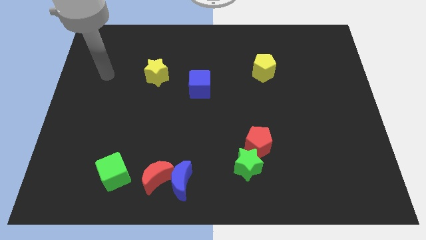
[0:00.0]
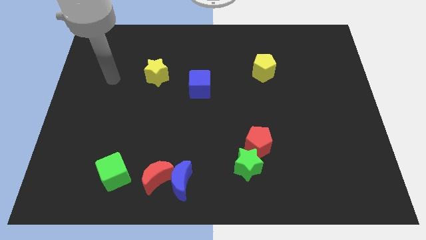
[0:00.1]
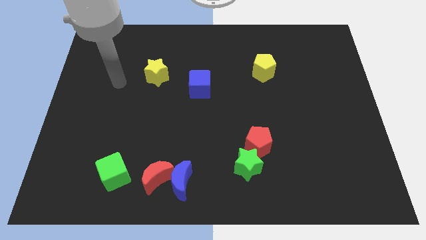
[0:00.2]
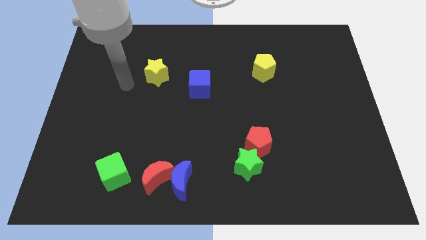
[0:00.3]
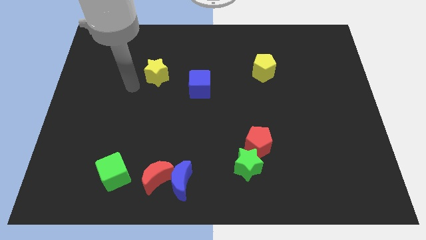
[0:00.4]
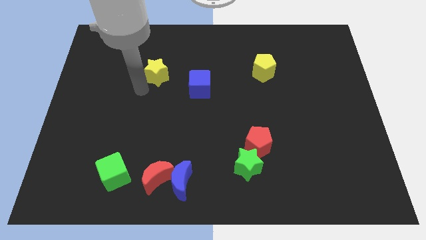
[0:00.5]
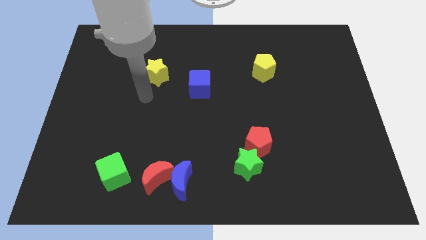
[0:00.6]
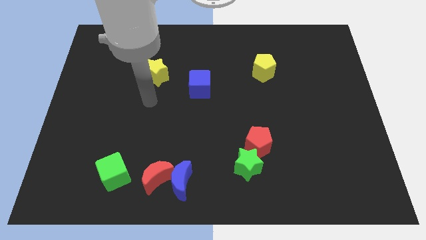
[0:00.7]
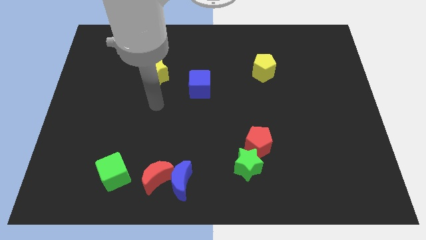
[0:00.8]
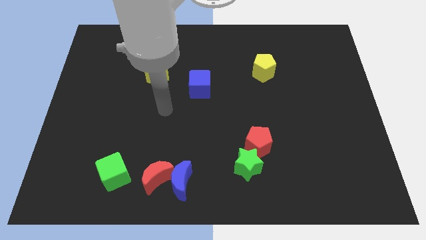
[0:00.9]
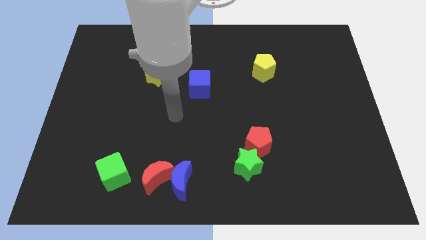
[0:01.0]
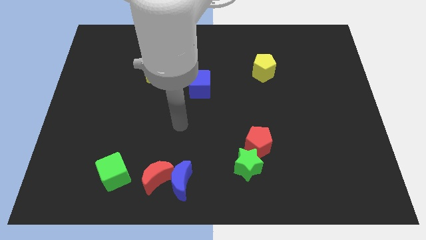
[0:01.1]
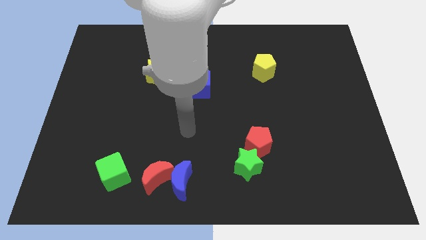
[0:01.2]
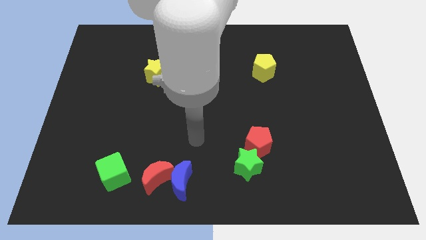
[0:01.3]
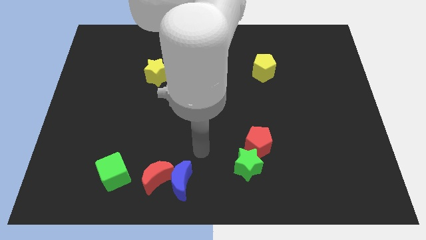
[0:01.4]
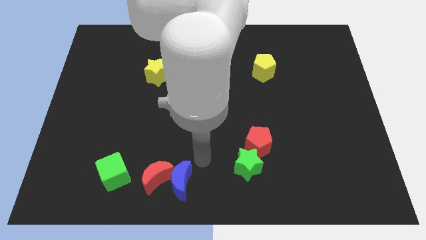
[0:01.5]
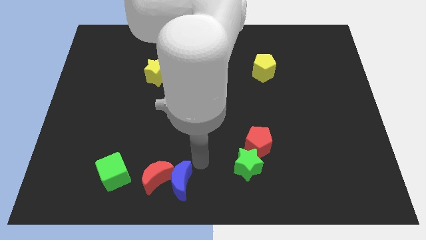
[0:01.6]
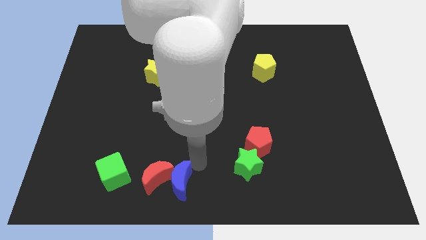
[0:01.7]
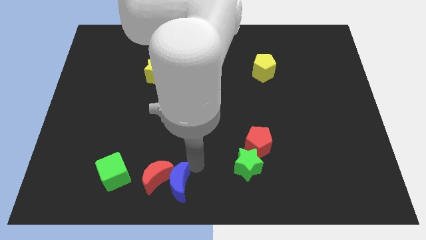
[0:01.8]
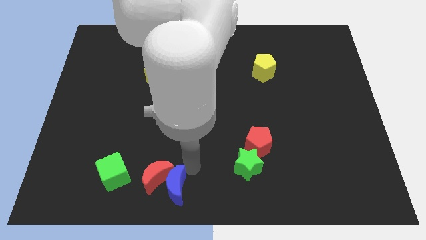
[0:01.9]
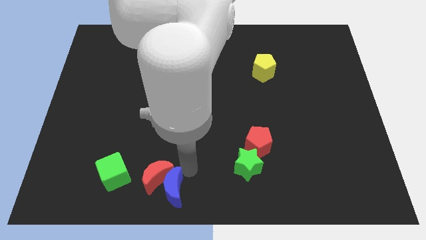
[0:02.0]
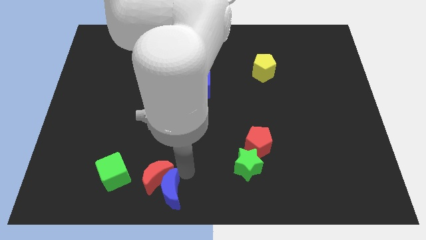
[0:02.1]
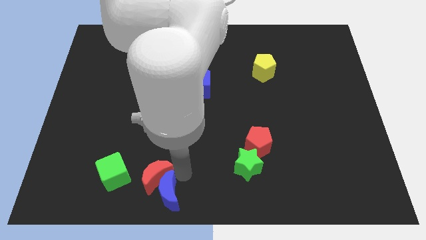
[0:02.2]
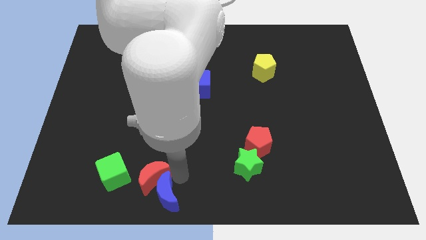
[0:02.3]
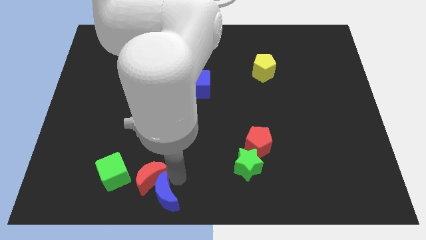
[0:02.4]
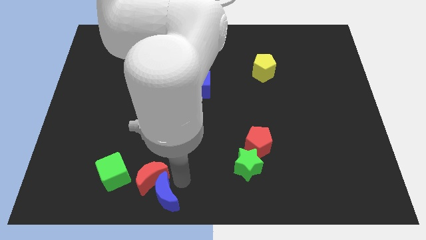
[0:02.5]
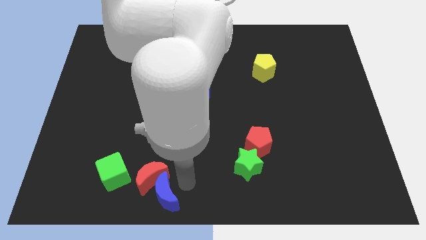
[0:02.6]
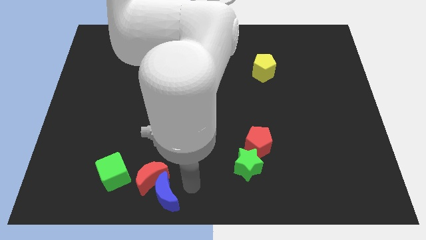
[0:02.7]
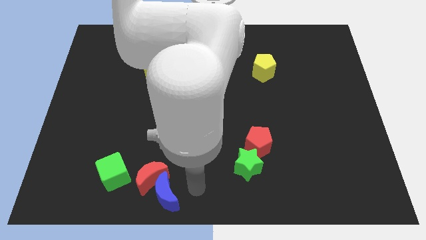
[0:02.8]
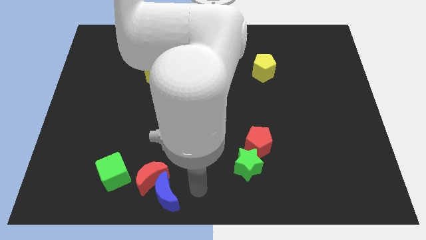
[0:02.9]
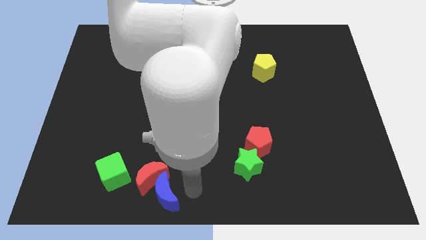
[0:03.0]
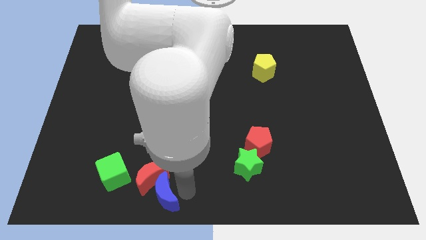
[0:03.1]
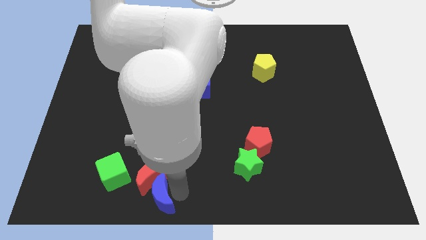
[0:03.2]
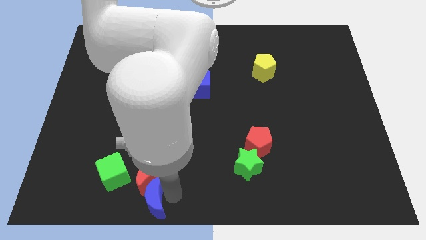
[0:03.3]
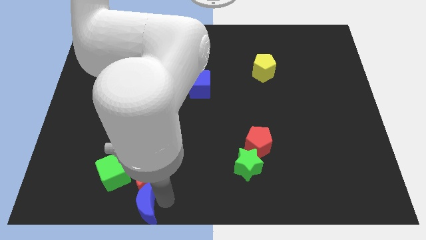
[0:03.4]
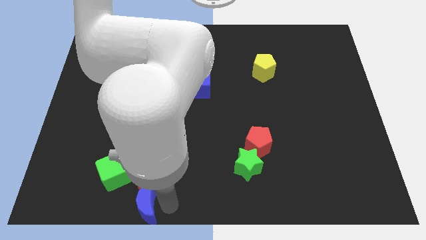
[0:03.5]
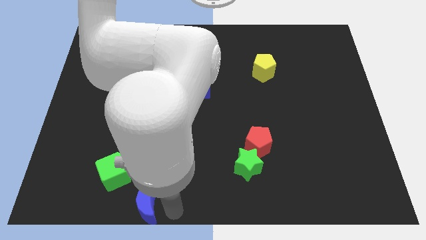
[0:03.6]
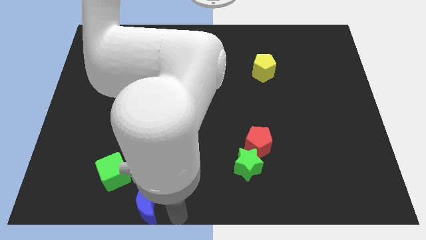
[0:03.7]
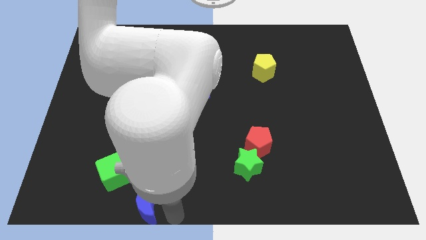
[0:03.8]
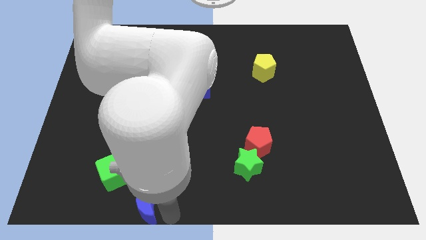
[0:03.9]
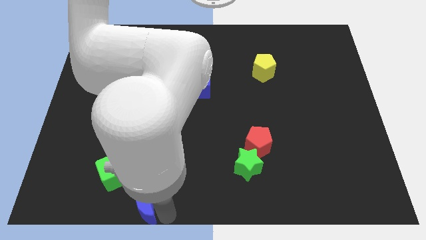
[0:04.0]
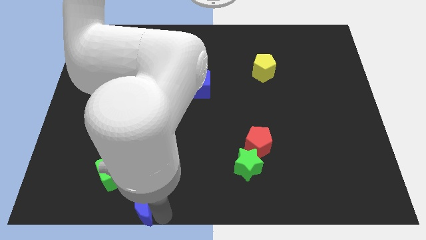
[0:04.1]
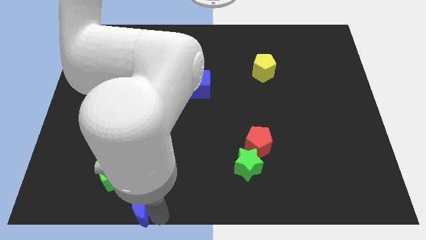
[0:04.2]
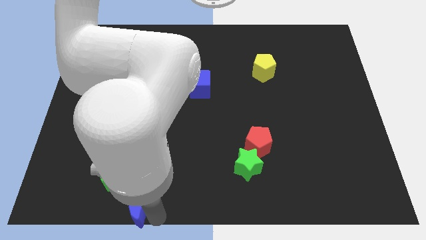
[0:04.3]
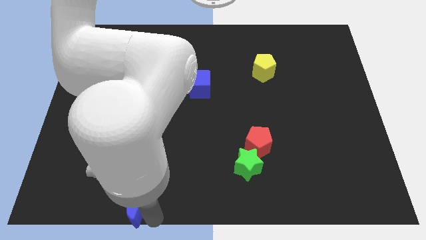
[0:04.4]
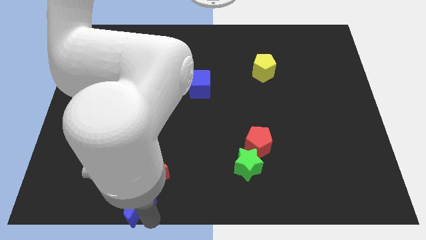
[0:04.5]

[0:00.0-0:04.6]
move the blue moon a bit to the left

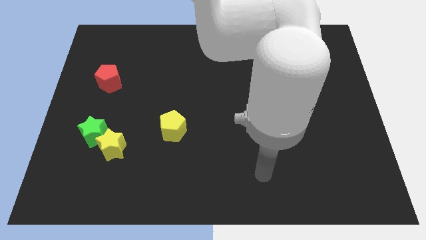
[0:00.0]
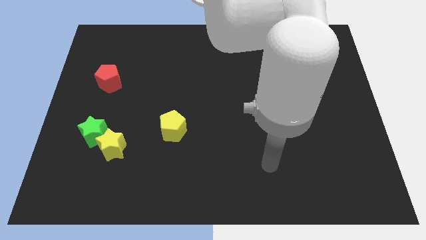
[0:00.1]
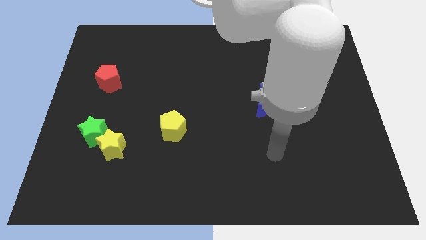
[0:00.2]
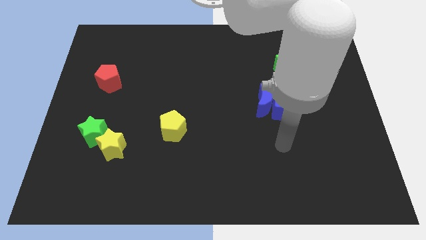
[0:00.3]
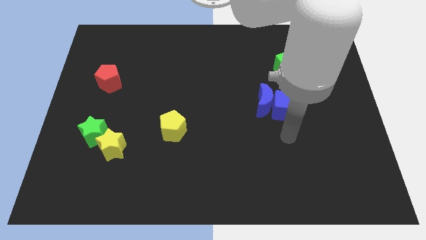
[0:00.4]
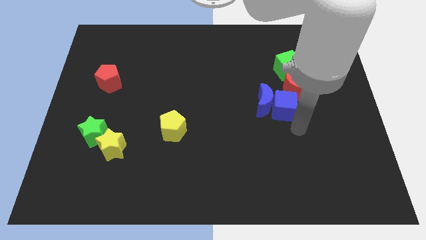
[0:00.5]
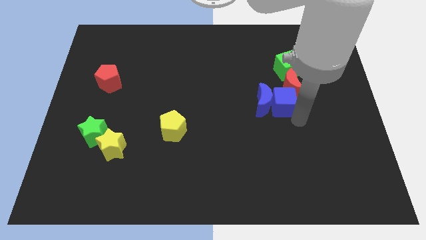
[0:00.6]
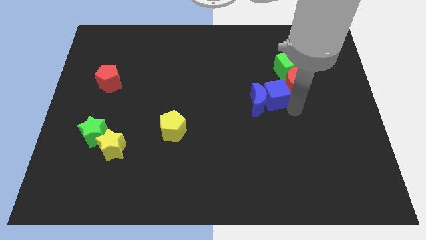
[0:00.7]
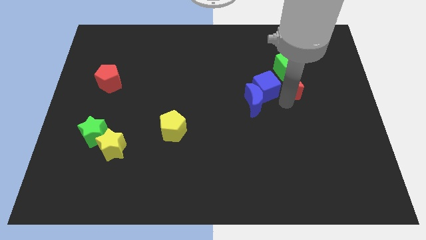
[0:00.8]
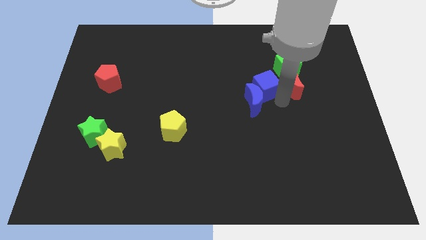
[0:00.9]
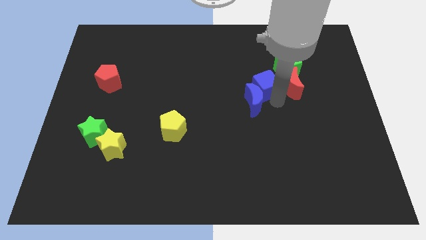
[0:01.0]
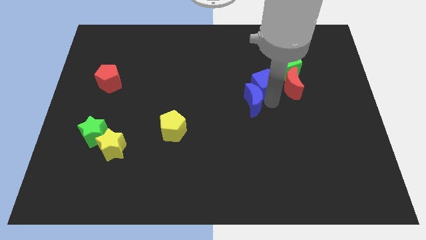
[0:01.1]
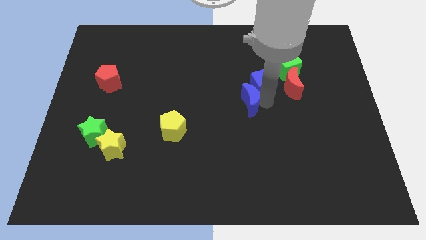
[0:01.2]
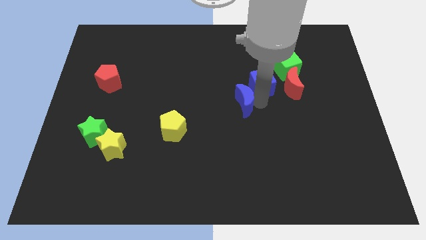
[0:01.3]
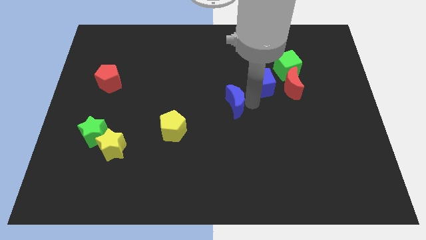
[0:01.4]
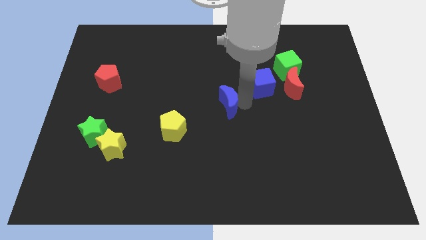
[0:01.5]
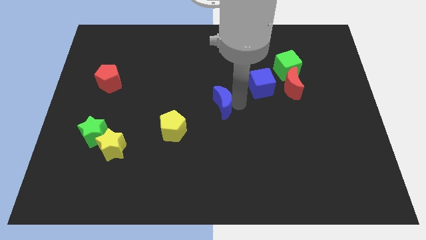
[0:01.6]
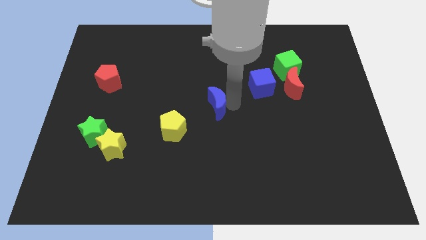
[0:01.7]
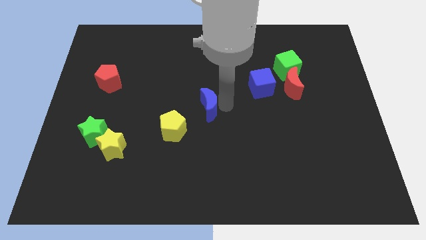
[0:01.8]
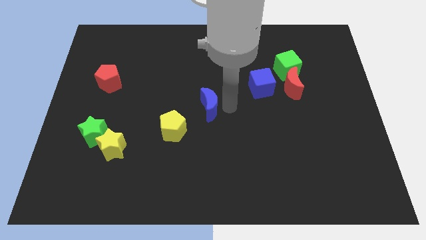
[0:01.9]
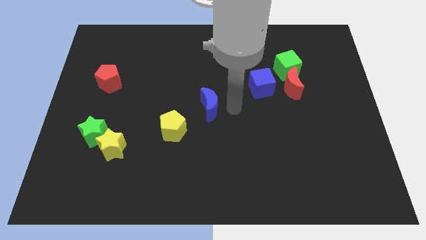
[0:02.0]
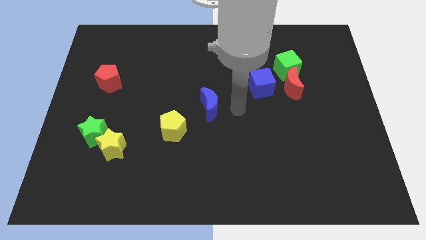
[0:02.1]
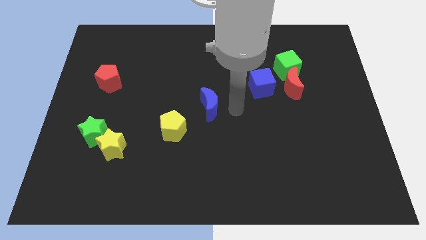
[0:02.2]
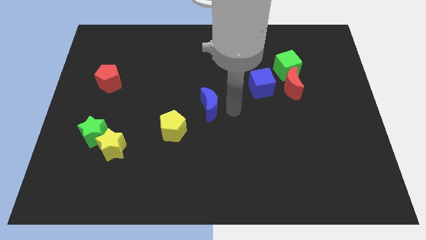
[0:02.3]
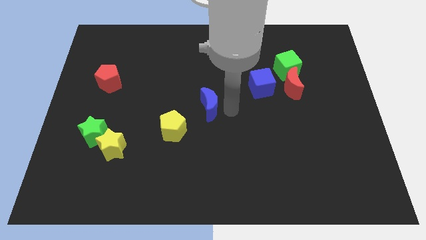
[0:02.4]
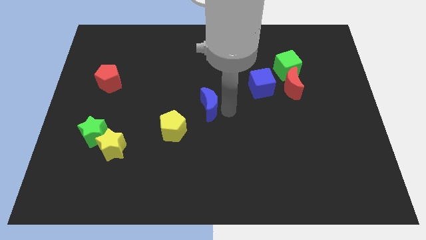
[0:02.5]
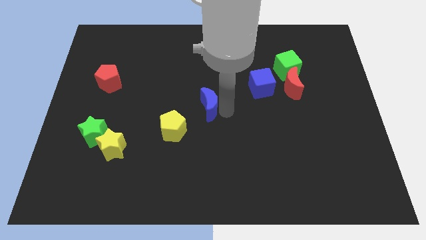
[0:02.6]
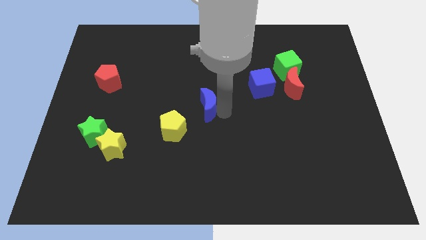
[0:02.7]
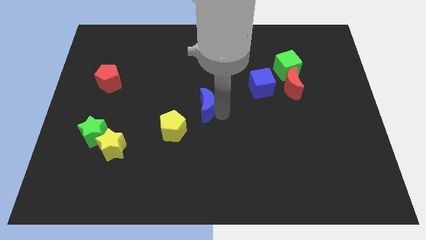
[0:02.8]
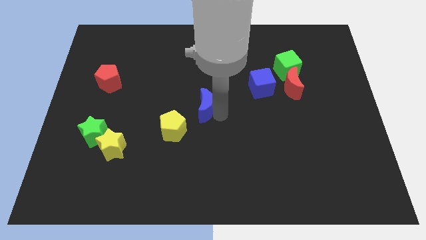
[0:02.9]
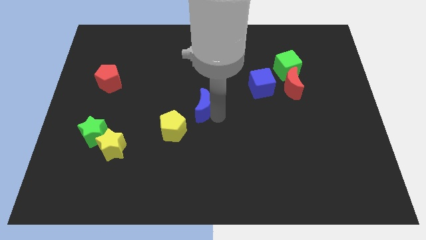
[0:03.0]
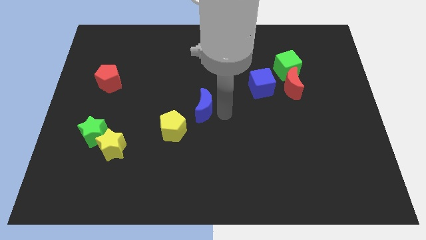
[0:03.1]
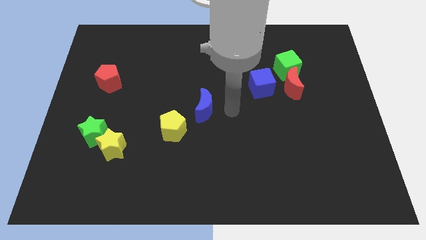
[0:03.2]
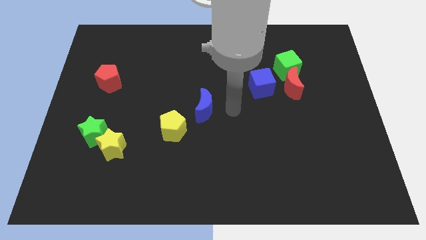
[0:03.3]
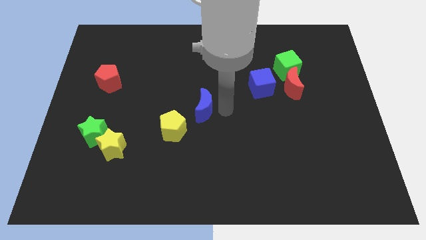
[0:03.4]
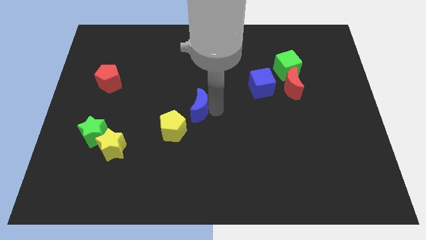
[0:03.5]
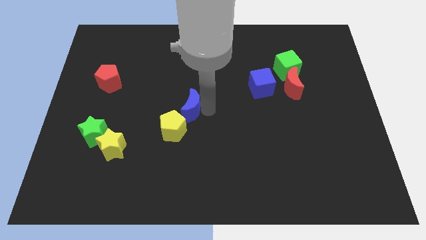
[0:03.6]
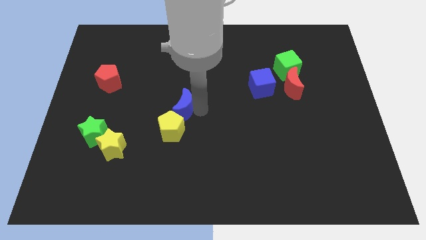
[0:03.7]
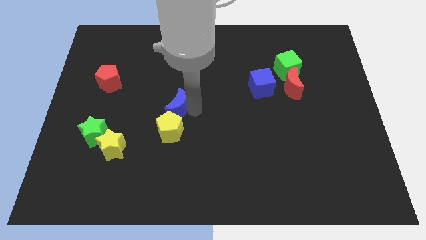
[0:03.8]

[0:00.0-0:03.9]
push the blue moon left
